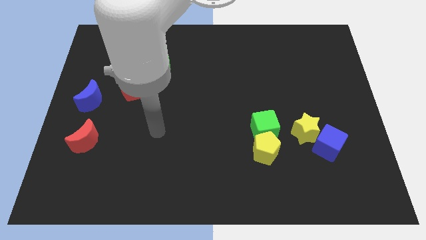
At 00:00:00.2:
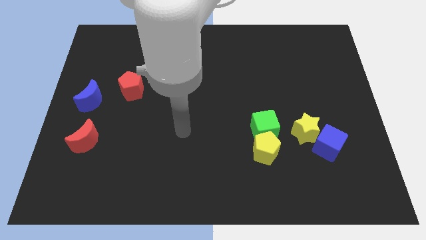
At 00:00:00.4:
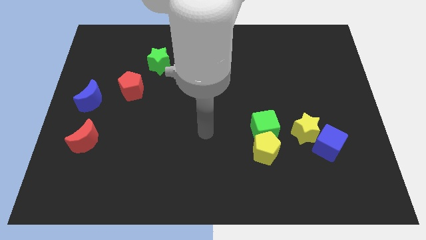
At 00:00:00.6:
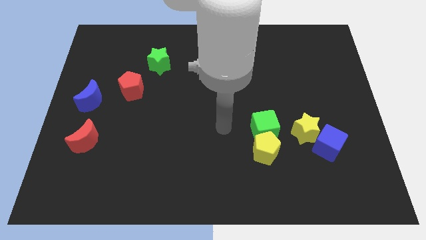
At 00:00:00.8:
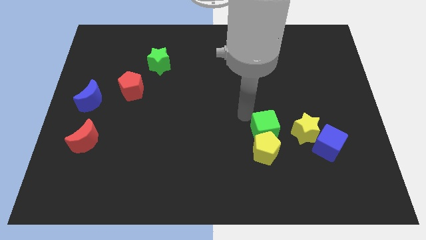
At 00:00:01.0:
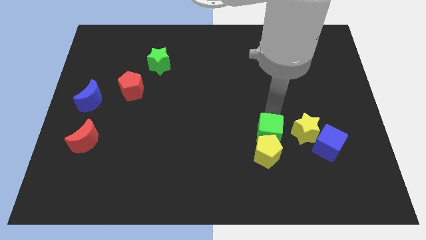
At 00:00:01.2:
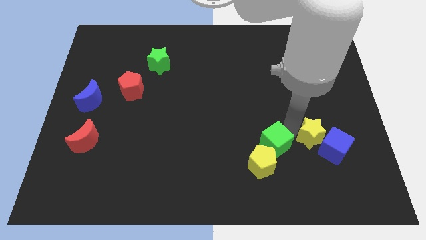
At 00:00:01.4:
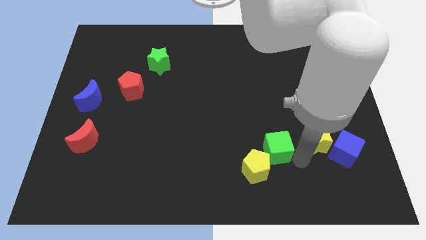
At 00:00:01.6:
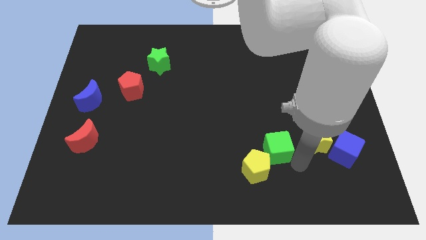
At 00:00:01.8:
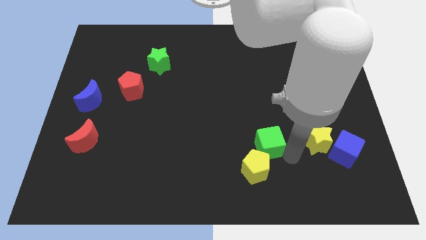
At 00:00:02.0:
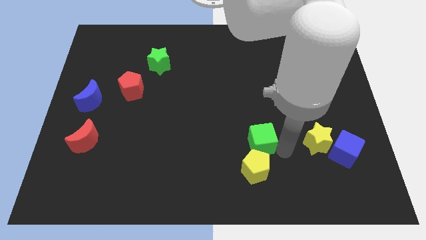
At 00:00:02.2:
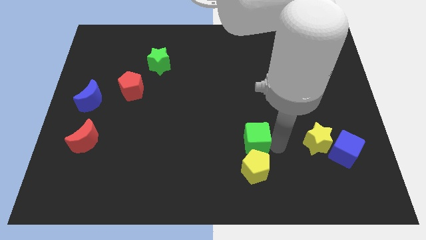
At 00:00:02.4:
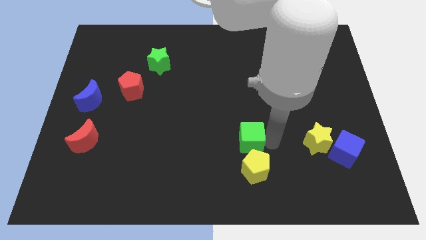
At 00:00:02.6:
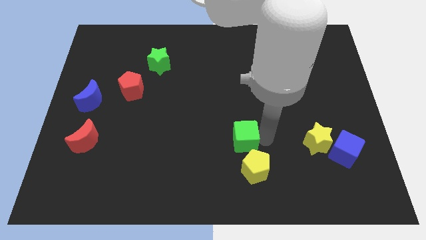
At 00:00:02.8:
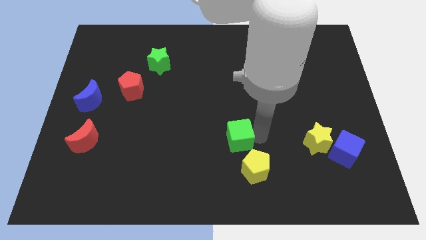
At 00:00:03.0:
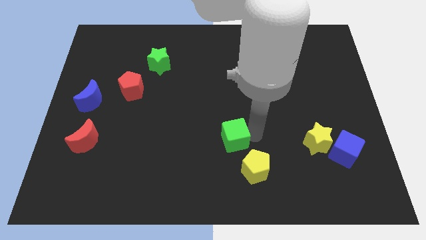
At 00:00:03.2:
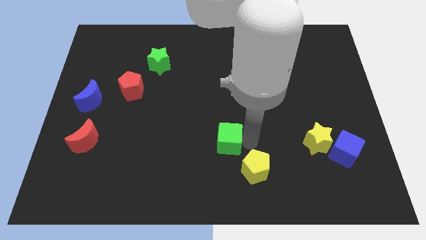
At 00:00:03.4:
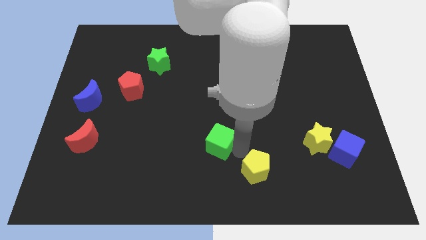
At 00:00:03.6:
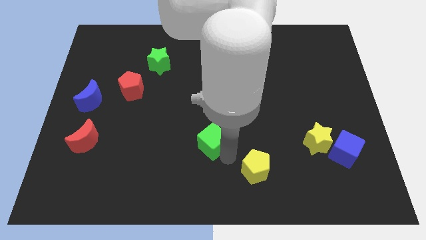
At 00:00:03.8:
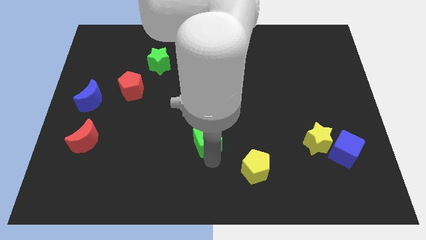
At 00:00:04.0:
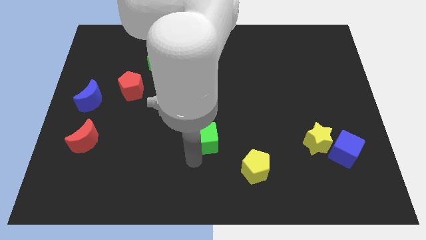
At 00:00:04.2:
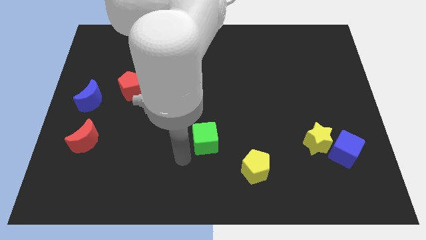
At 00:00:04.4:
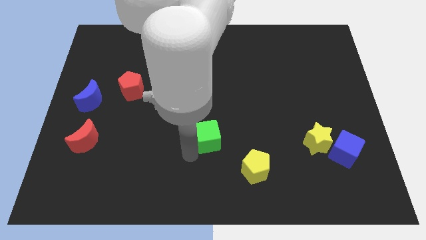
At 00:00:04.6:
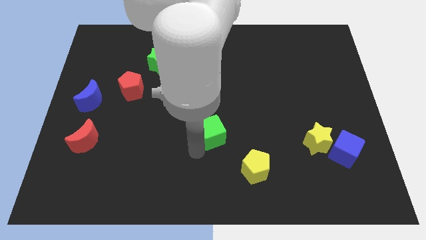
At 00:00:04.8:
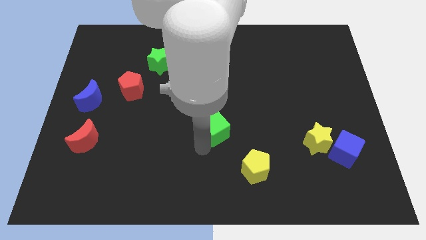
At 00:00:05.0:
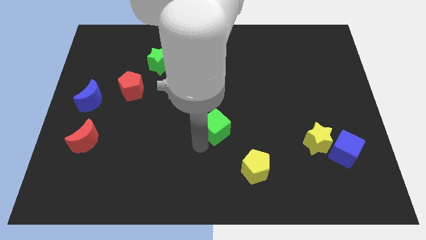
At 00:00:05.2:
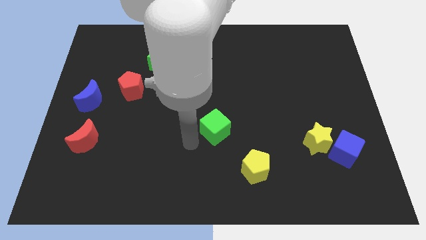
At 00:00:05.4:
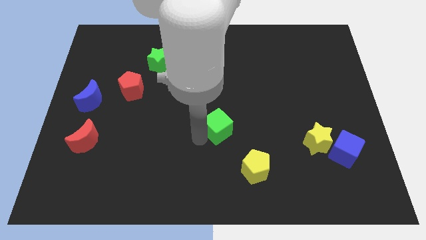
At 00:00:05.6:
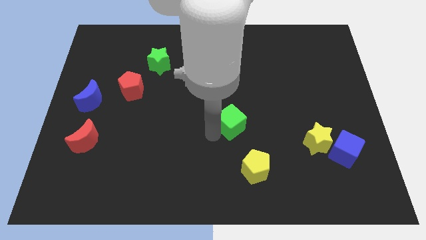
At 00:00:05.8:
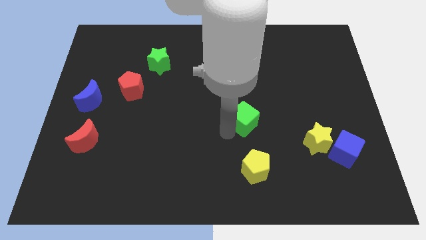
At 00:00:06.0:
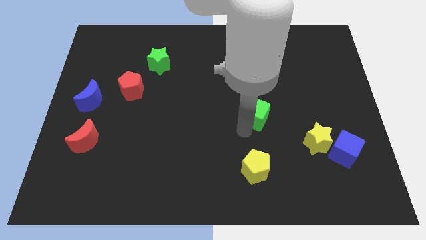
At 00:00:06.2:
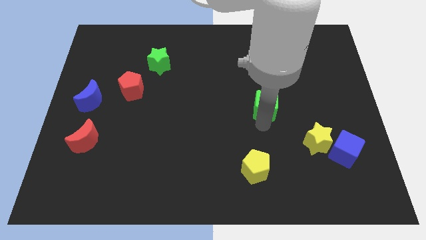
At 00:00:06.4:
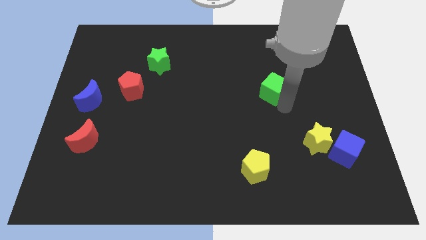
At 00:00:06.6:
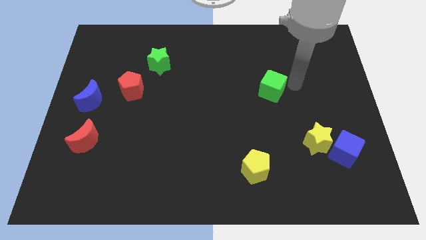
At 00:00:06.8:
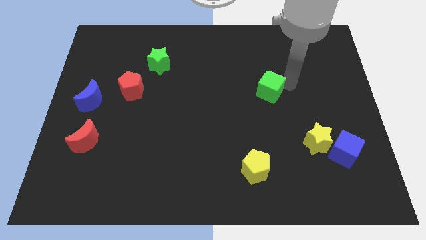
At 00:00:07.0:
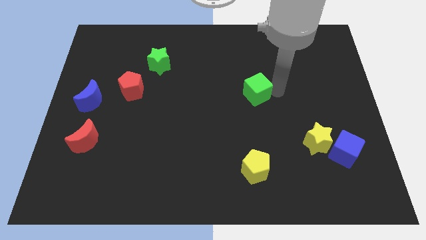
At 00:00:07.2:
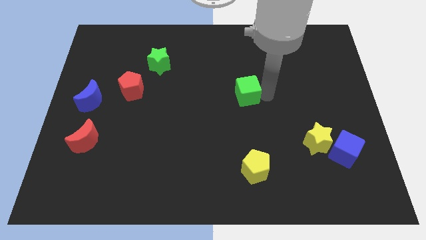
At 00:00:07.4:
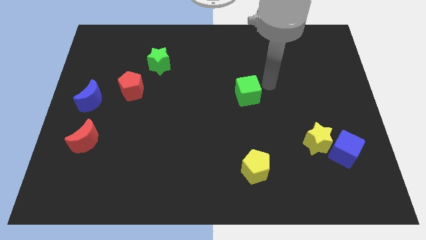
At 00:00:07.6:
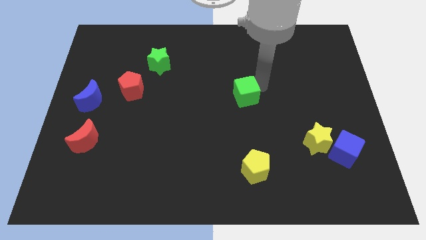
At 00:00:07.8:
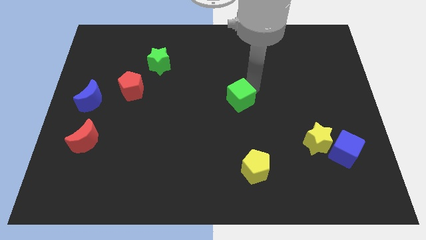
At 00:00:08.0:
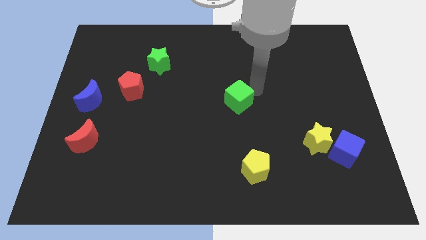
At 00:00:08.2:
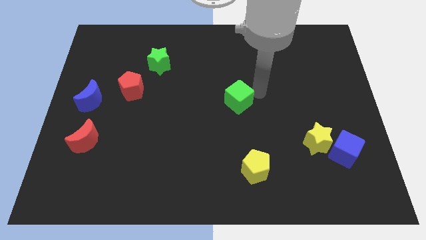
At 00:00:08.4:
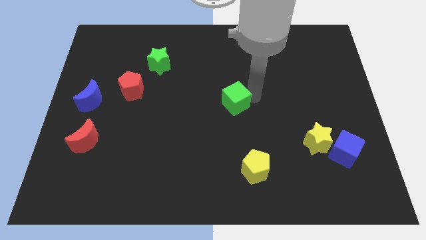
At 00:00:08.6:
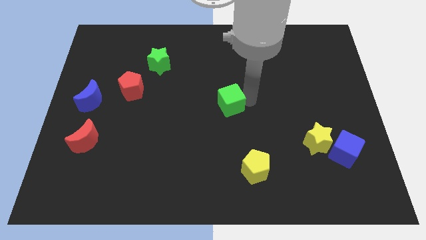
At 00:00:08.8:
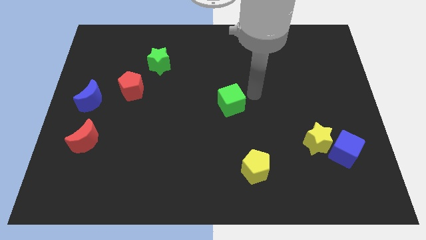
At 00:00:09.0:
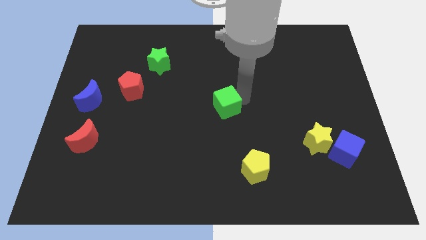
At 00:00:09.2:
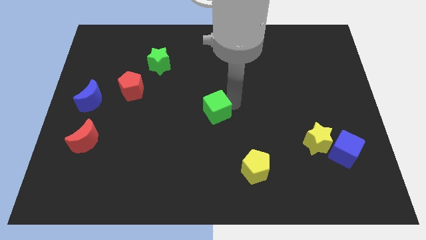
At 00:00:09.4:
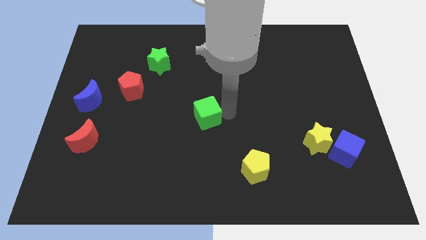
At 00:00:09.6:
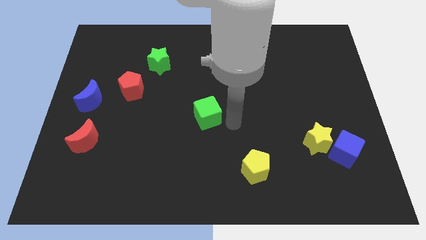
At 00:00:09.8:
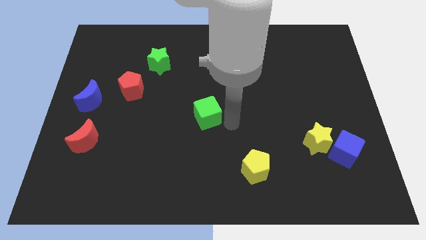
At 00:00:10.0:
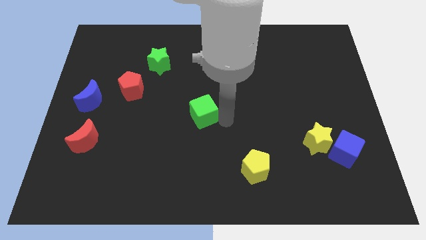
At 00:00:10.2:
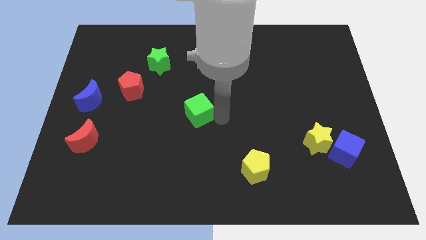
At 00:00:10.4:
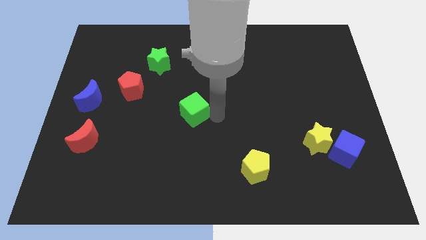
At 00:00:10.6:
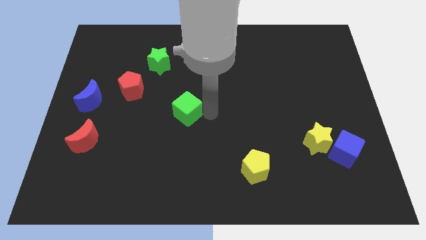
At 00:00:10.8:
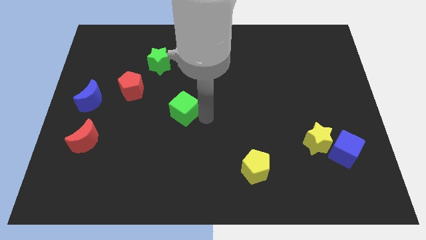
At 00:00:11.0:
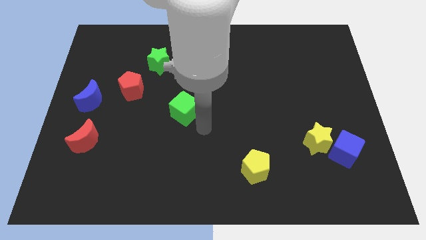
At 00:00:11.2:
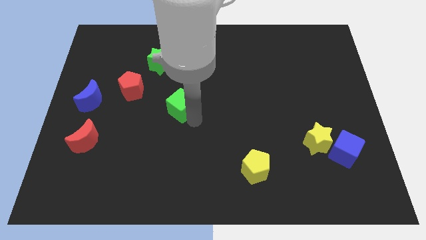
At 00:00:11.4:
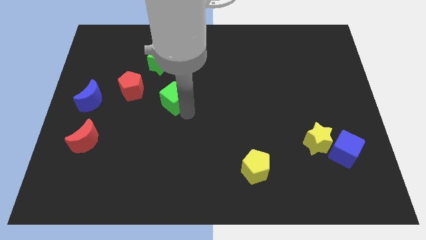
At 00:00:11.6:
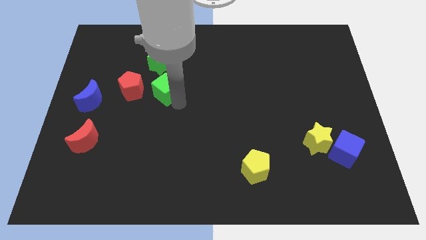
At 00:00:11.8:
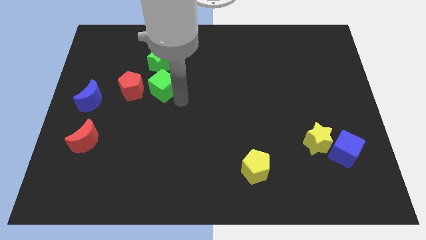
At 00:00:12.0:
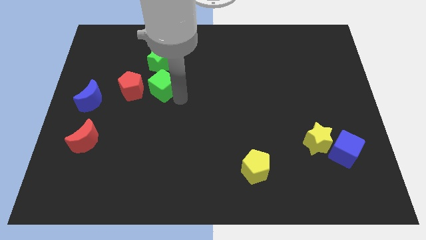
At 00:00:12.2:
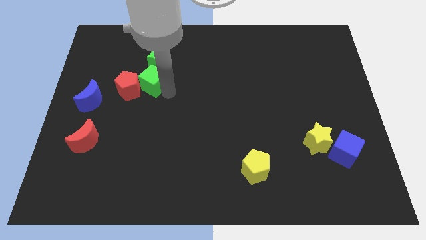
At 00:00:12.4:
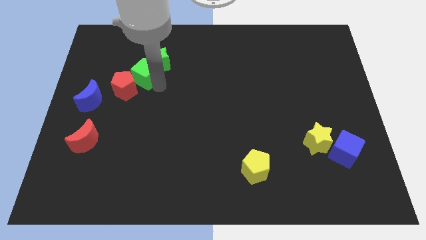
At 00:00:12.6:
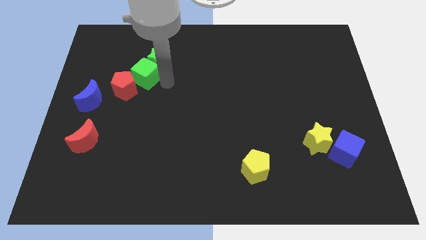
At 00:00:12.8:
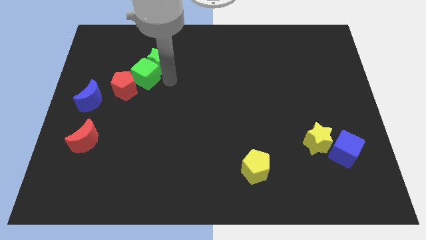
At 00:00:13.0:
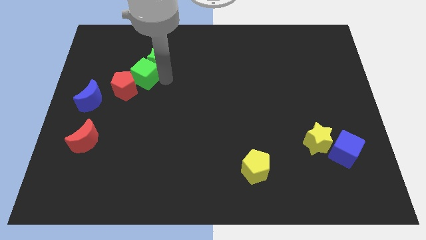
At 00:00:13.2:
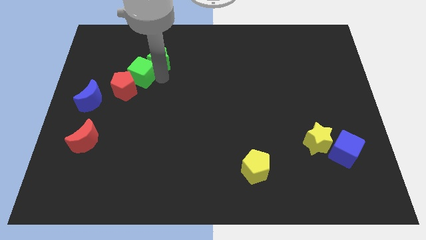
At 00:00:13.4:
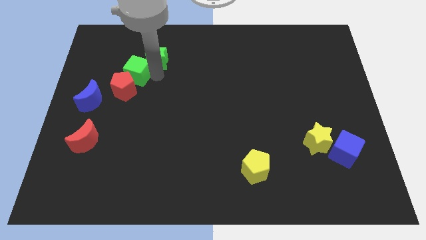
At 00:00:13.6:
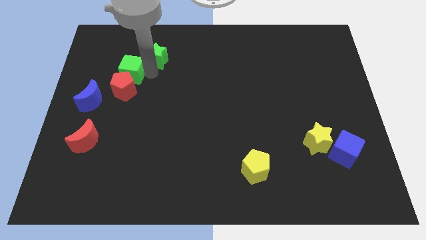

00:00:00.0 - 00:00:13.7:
slide the green cube to the top left of the red pentagon

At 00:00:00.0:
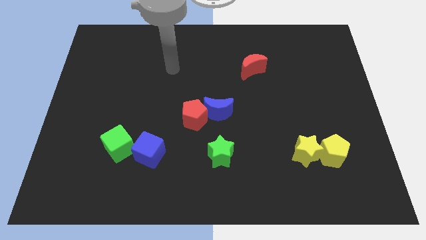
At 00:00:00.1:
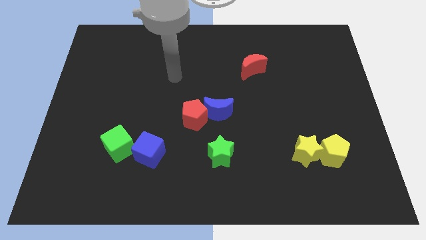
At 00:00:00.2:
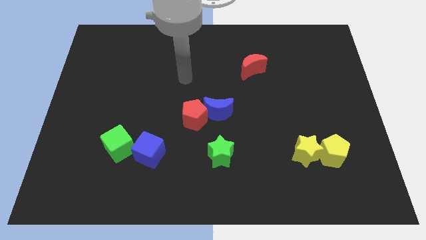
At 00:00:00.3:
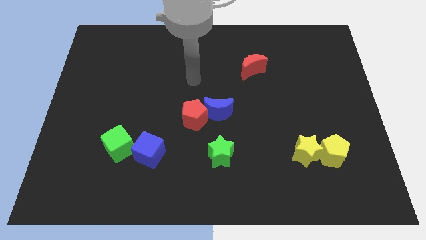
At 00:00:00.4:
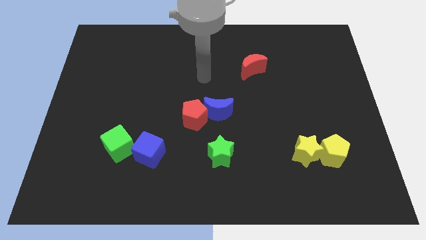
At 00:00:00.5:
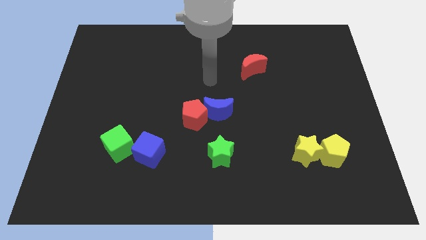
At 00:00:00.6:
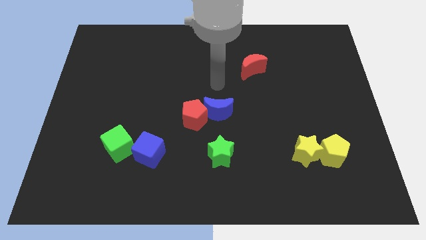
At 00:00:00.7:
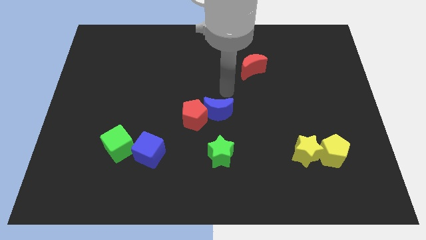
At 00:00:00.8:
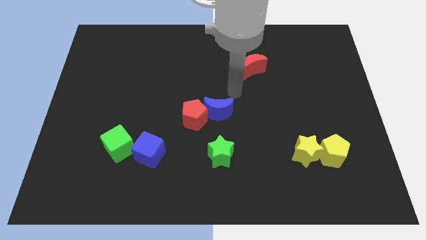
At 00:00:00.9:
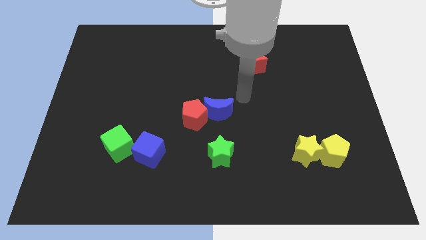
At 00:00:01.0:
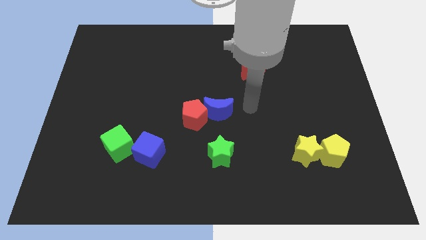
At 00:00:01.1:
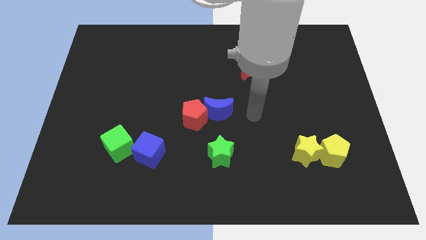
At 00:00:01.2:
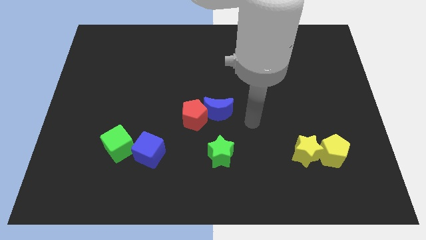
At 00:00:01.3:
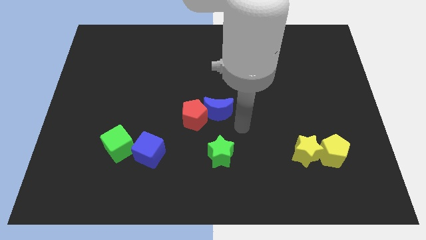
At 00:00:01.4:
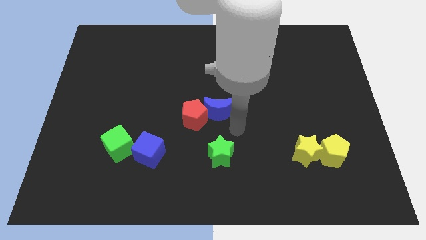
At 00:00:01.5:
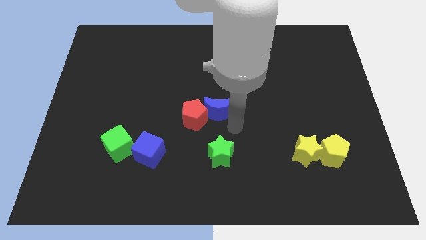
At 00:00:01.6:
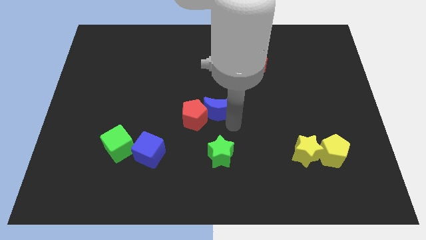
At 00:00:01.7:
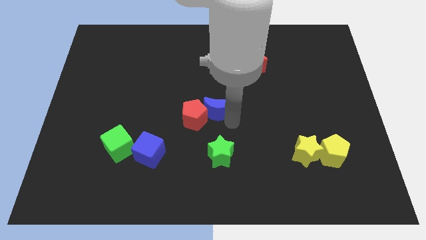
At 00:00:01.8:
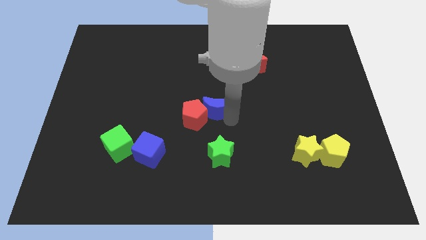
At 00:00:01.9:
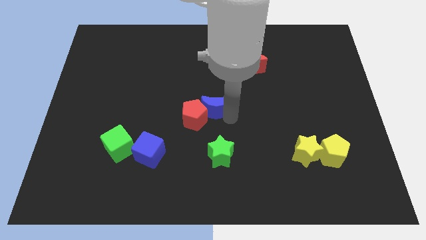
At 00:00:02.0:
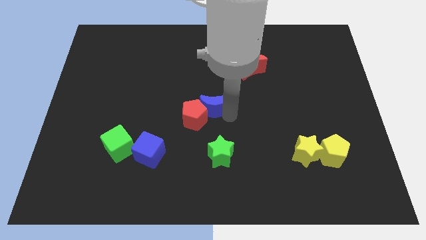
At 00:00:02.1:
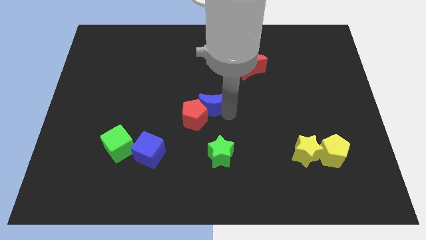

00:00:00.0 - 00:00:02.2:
push the blue moon to the top side of the red pentagon
